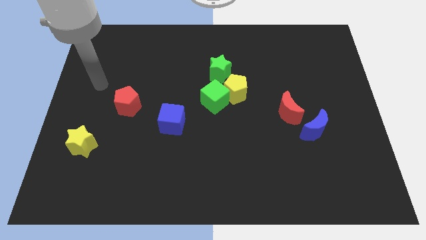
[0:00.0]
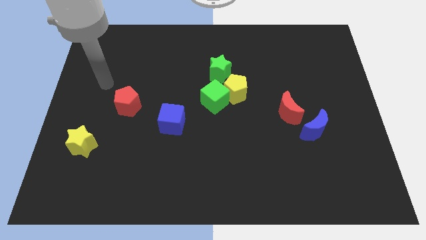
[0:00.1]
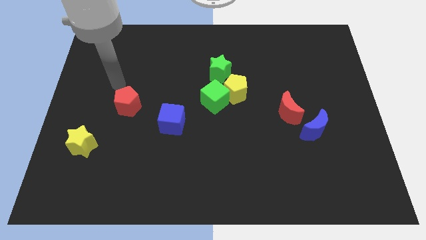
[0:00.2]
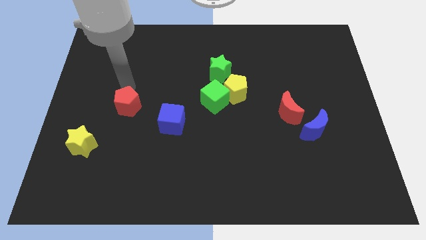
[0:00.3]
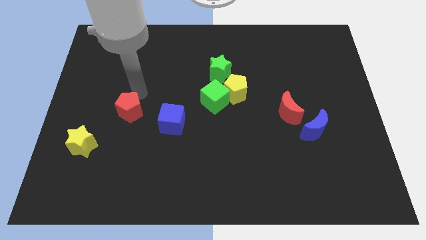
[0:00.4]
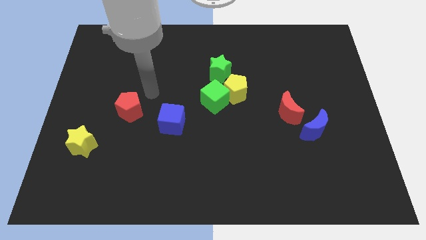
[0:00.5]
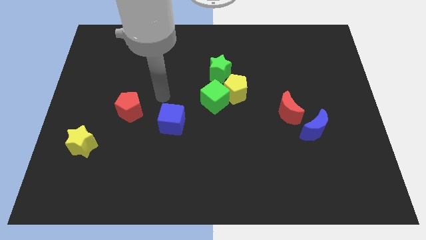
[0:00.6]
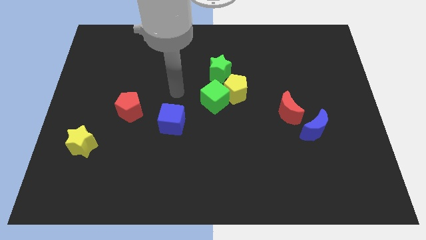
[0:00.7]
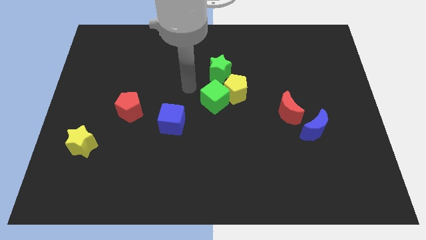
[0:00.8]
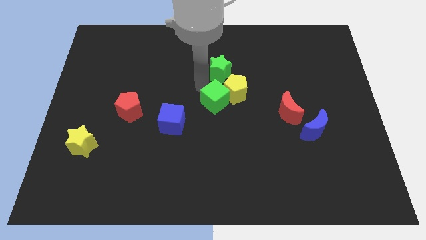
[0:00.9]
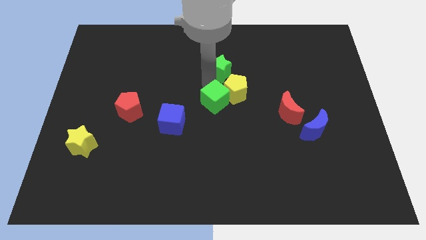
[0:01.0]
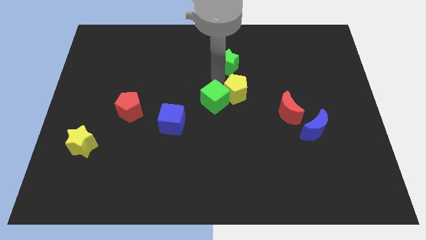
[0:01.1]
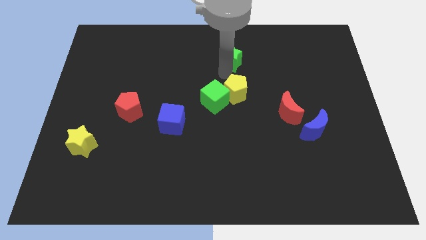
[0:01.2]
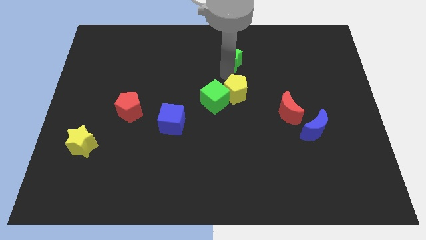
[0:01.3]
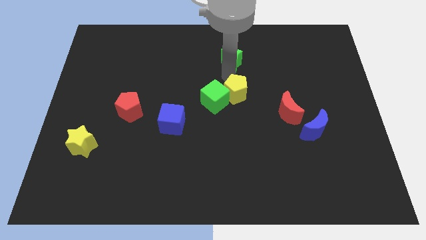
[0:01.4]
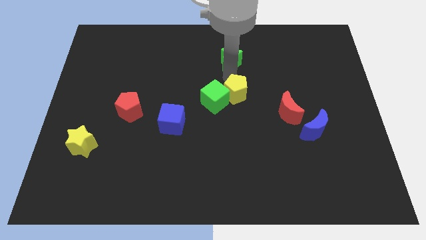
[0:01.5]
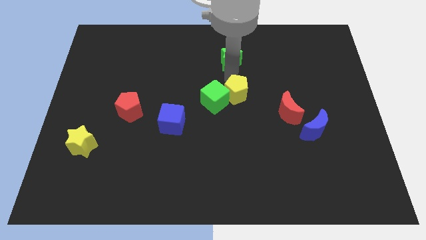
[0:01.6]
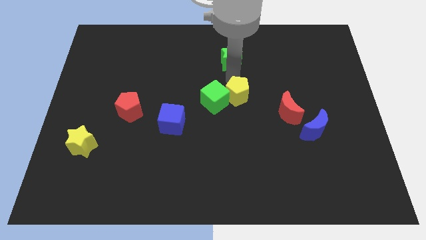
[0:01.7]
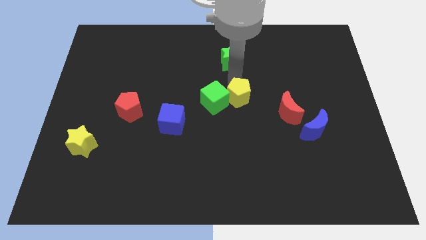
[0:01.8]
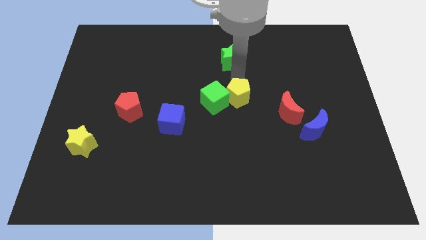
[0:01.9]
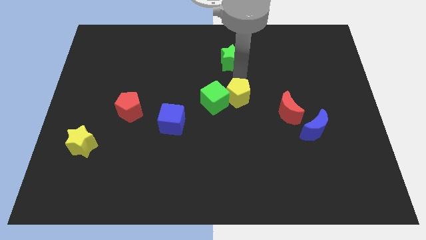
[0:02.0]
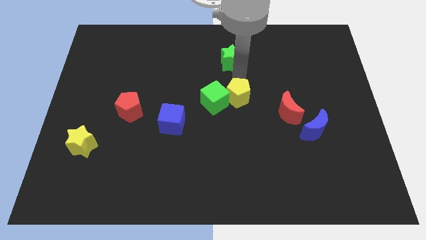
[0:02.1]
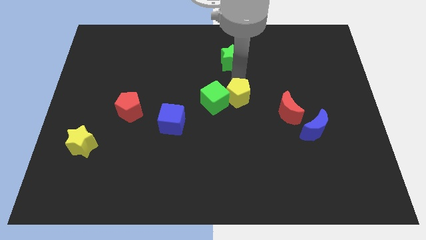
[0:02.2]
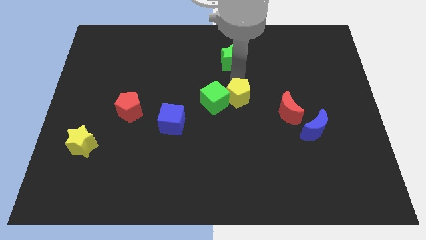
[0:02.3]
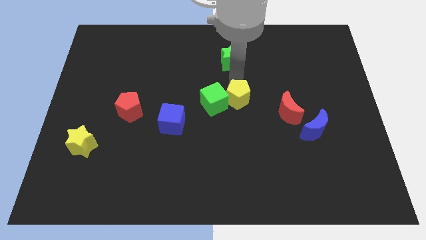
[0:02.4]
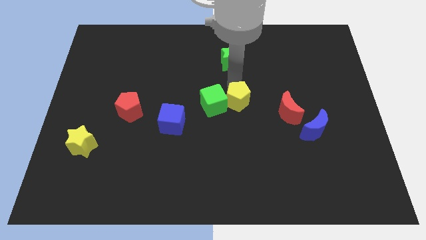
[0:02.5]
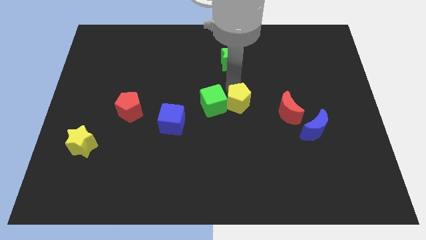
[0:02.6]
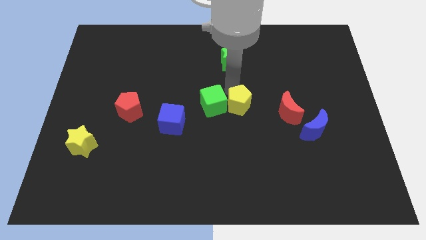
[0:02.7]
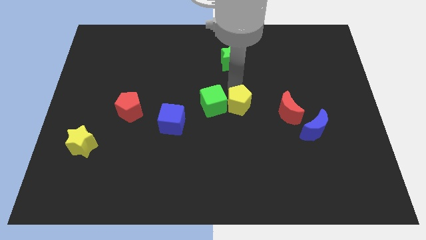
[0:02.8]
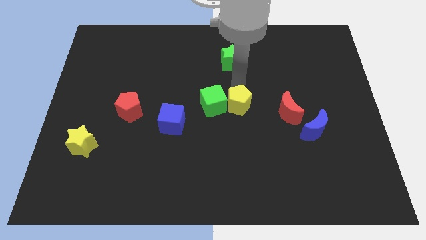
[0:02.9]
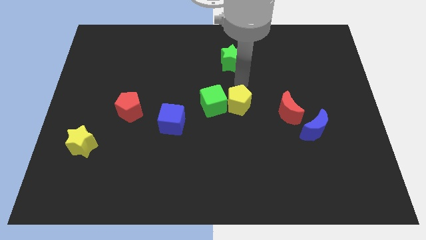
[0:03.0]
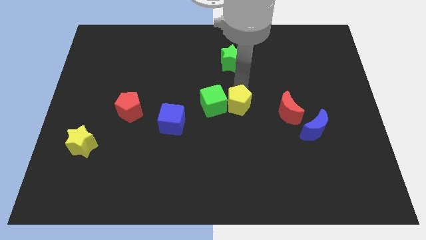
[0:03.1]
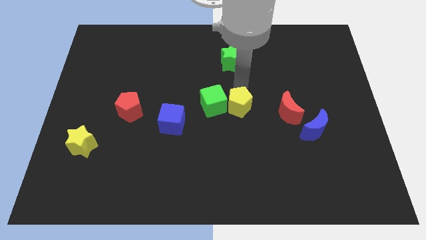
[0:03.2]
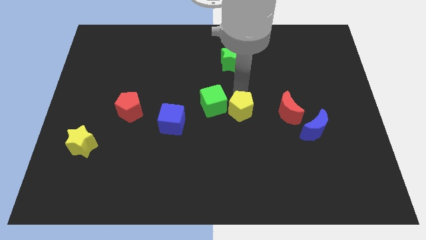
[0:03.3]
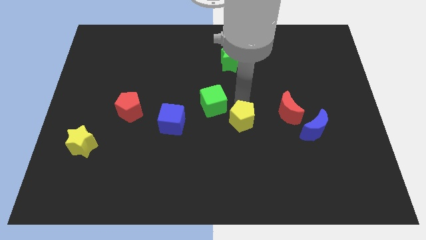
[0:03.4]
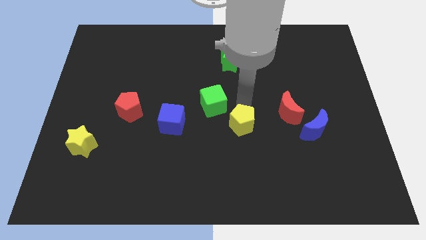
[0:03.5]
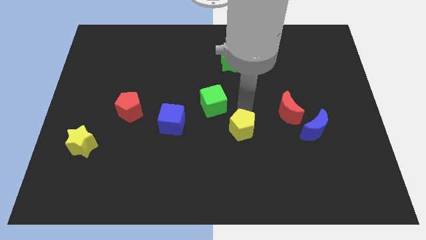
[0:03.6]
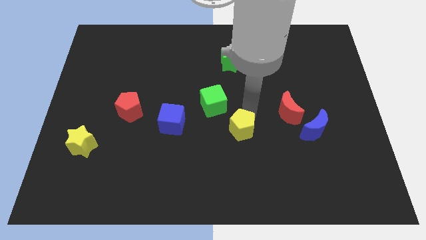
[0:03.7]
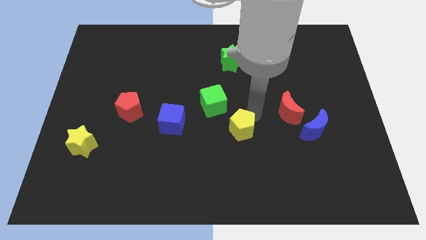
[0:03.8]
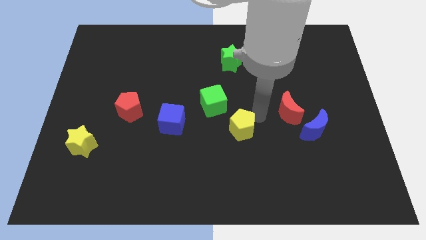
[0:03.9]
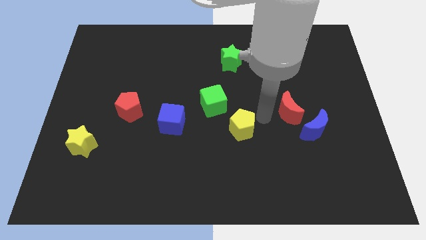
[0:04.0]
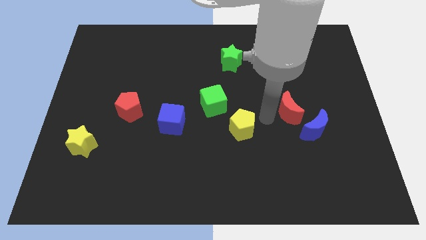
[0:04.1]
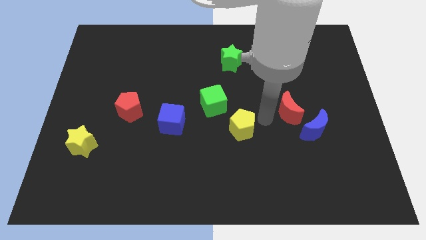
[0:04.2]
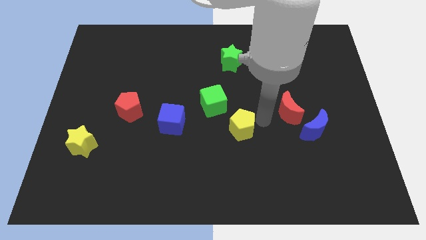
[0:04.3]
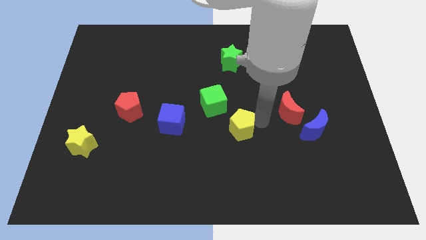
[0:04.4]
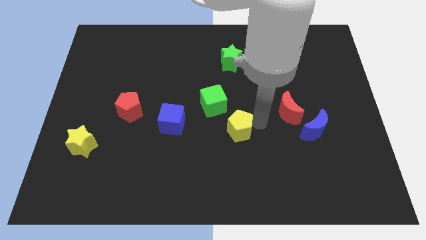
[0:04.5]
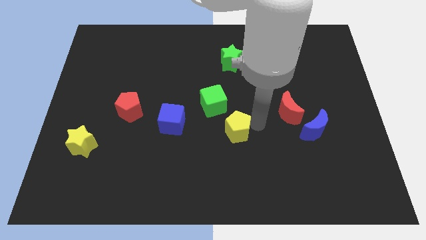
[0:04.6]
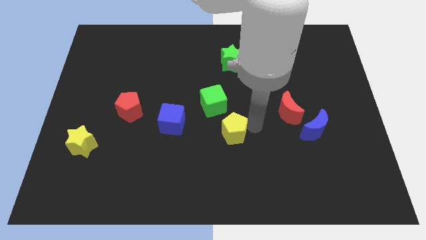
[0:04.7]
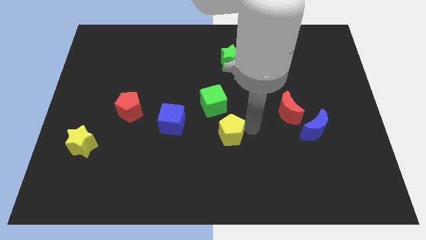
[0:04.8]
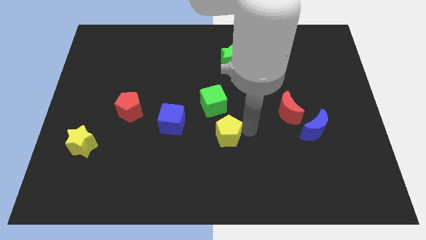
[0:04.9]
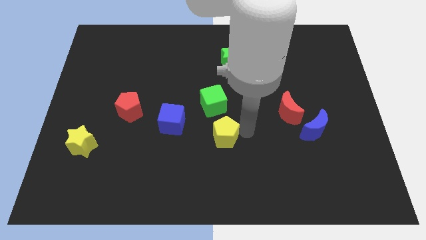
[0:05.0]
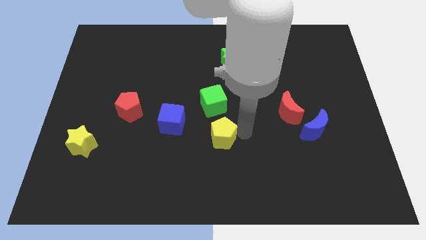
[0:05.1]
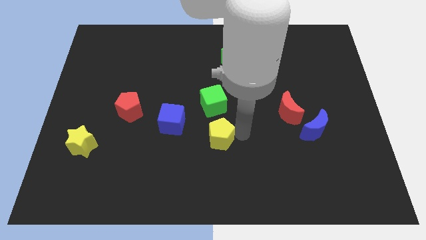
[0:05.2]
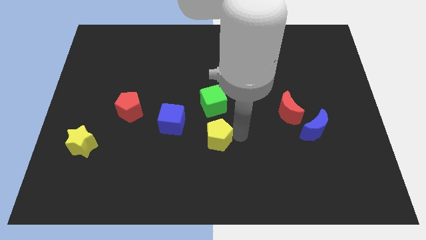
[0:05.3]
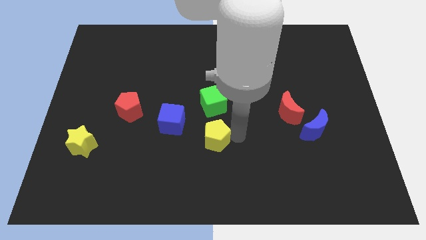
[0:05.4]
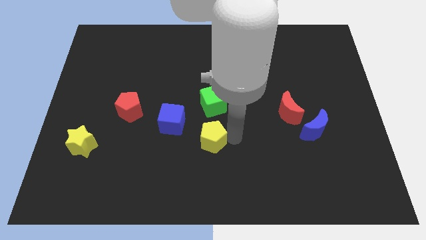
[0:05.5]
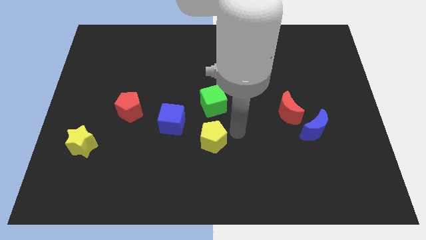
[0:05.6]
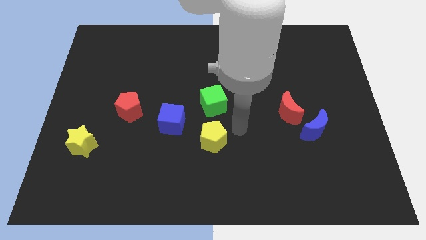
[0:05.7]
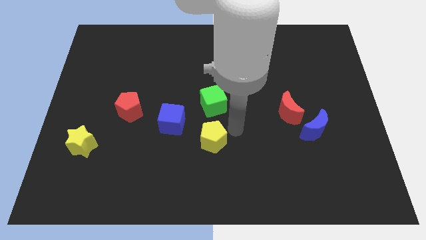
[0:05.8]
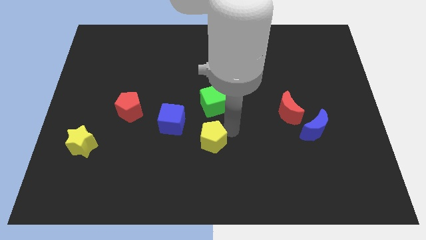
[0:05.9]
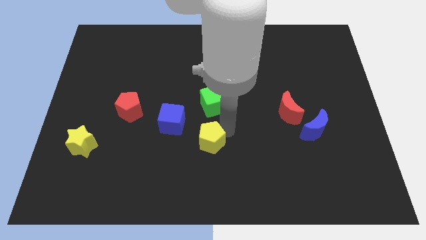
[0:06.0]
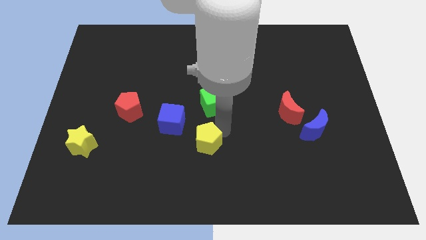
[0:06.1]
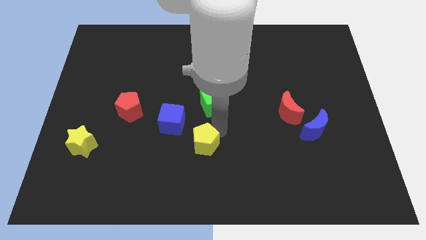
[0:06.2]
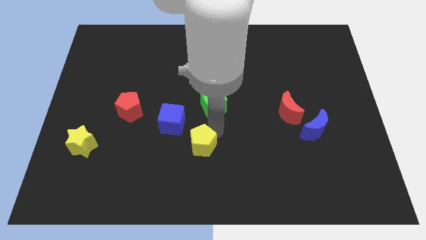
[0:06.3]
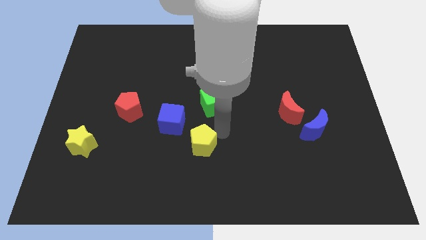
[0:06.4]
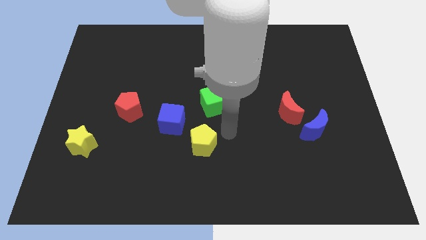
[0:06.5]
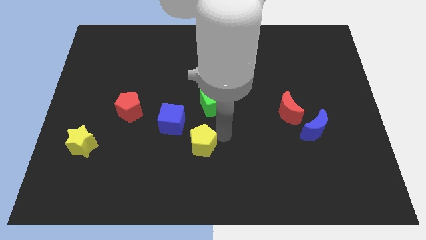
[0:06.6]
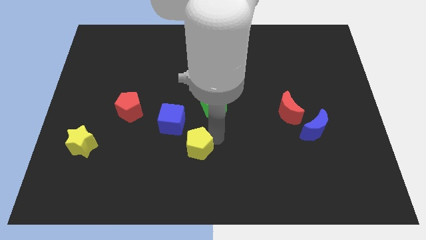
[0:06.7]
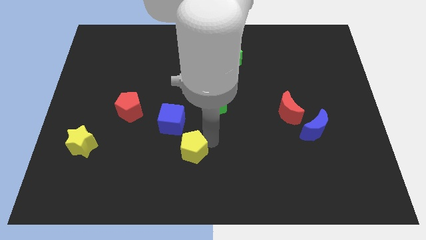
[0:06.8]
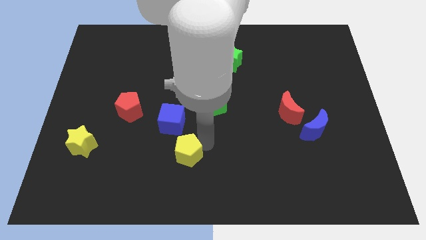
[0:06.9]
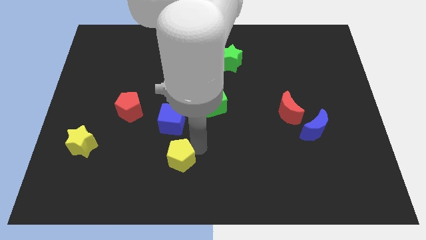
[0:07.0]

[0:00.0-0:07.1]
push the yellow pentagon down and left diagonally

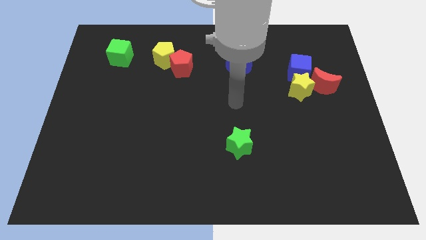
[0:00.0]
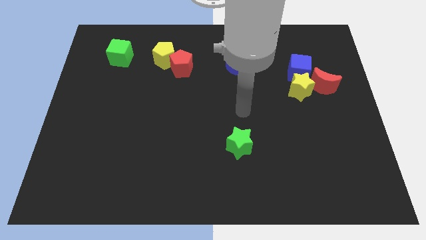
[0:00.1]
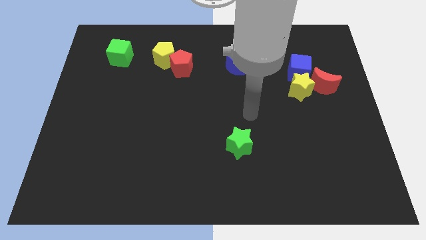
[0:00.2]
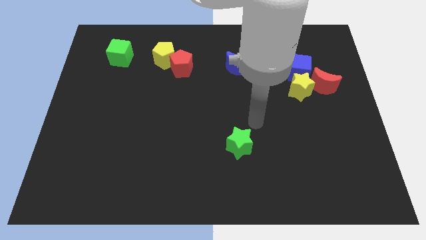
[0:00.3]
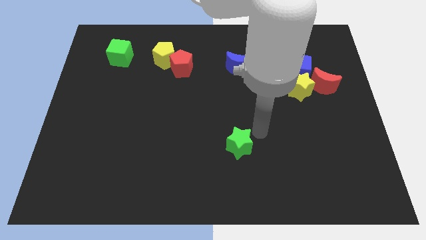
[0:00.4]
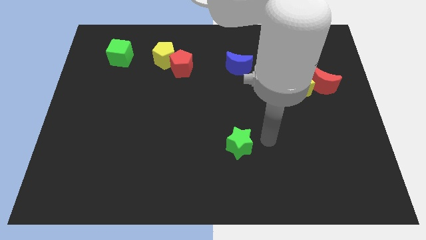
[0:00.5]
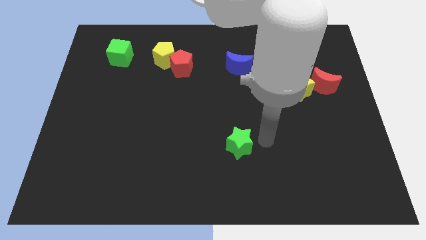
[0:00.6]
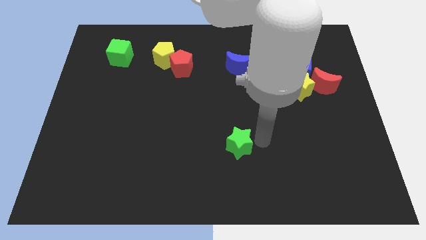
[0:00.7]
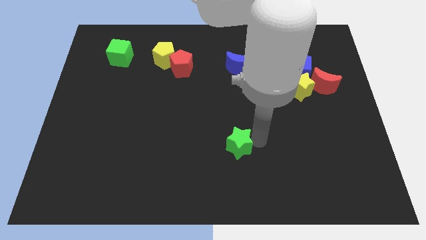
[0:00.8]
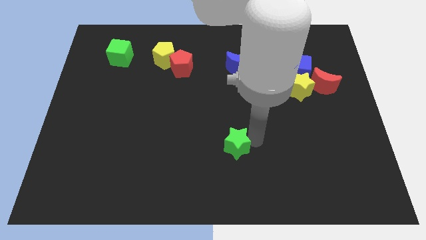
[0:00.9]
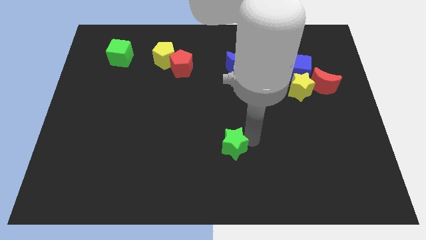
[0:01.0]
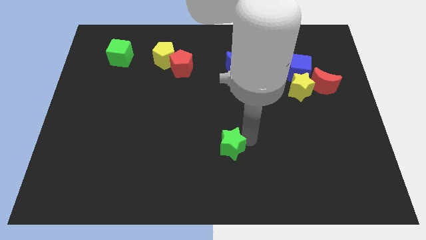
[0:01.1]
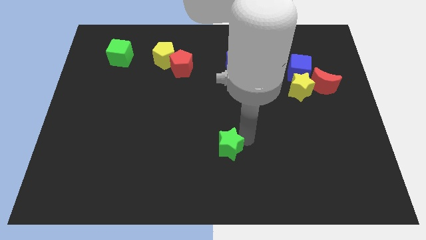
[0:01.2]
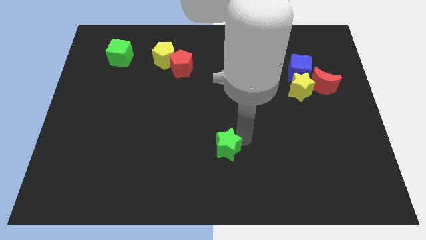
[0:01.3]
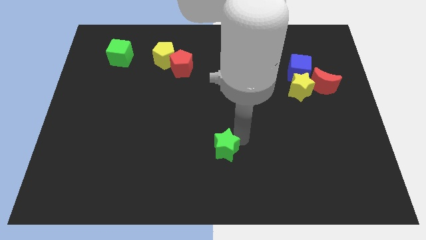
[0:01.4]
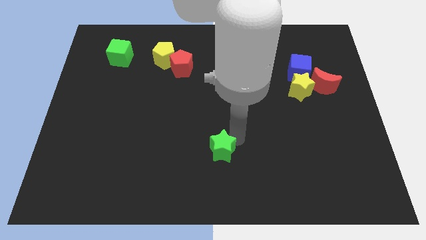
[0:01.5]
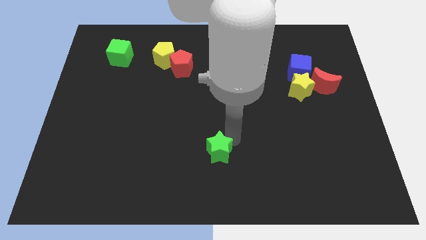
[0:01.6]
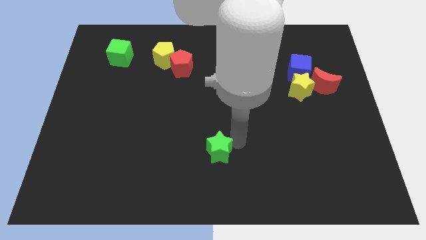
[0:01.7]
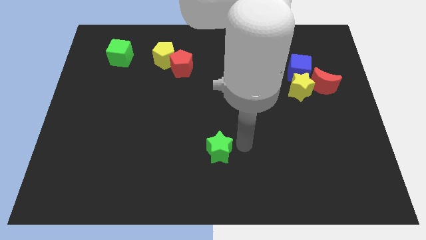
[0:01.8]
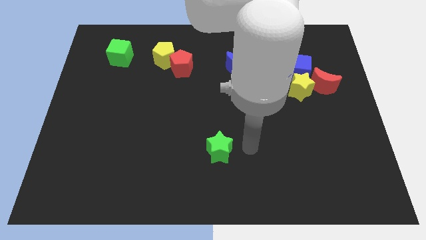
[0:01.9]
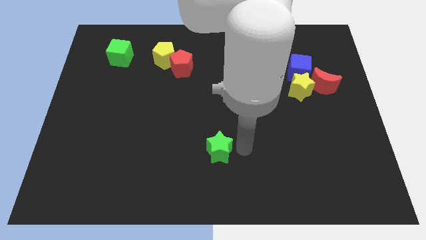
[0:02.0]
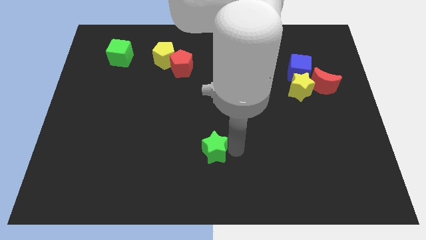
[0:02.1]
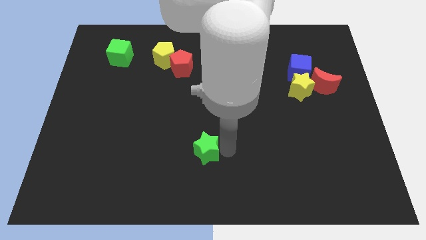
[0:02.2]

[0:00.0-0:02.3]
slightly slide the green star to the left
